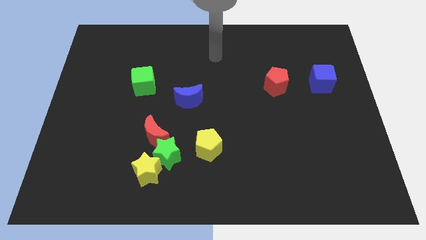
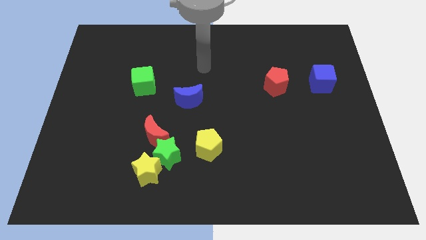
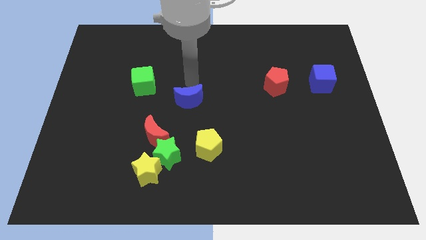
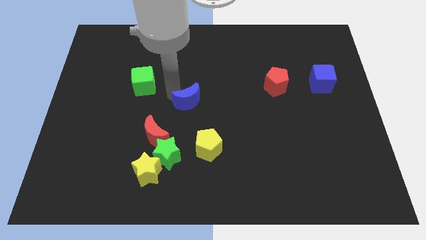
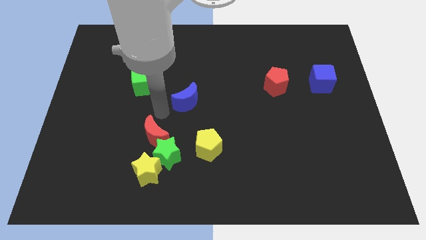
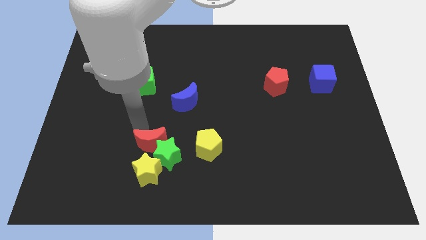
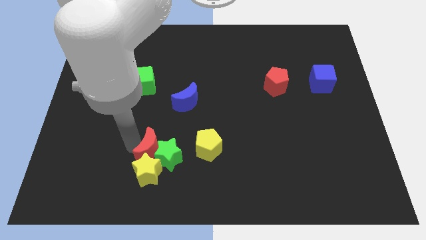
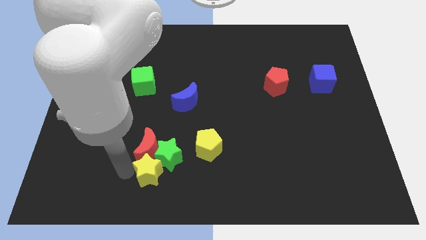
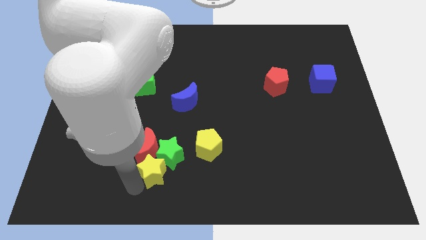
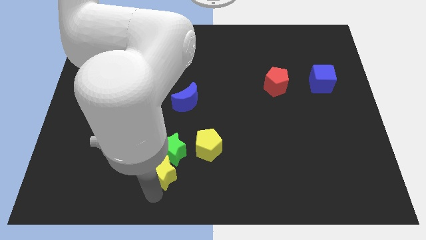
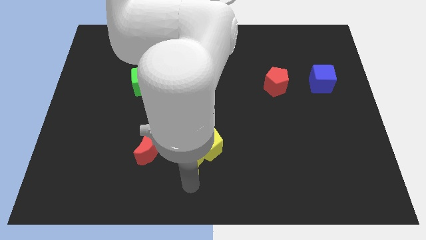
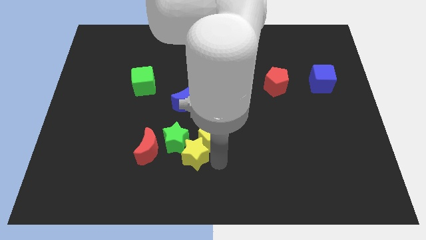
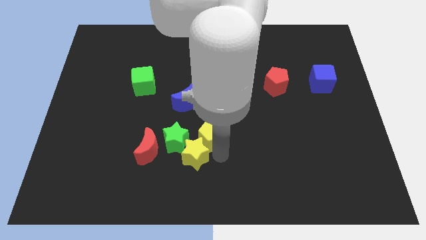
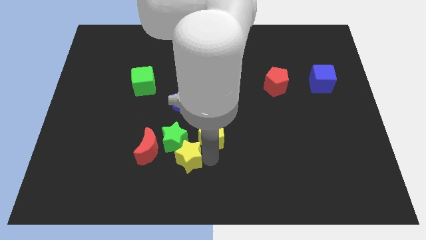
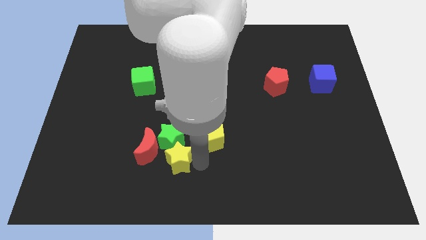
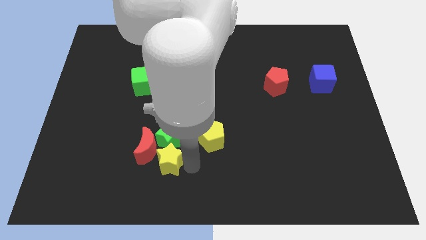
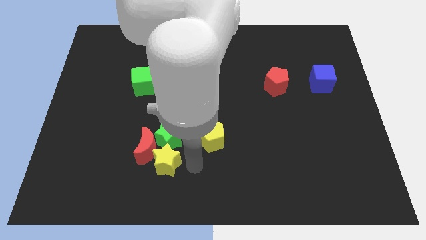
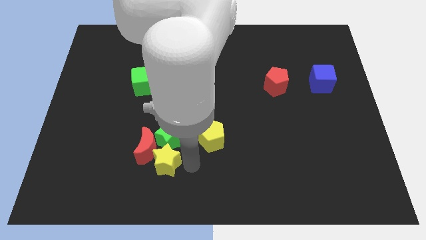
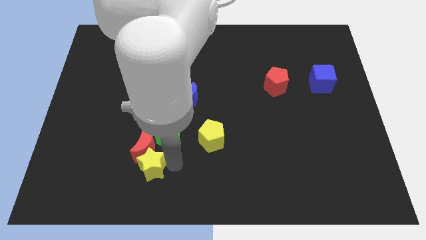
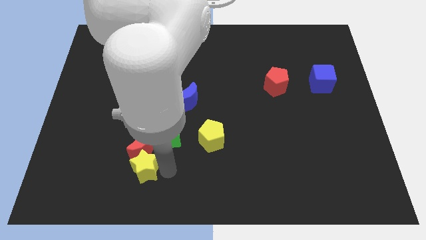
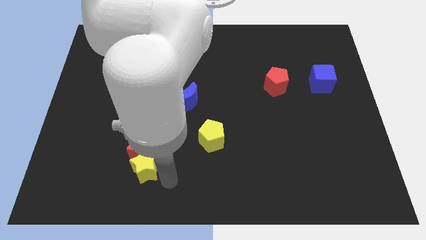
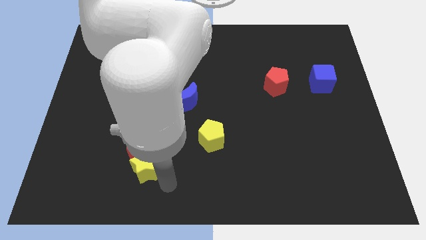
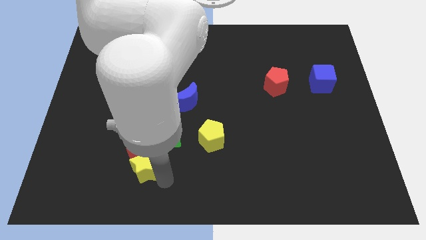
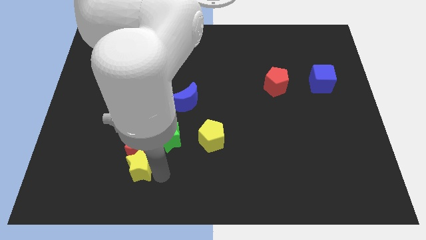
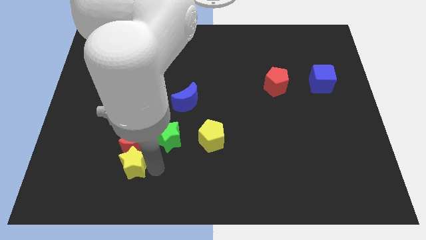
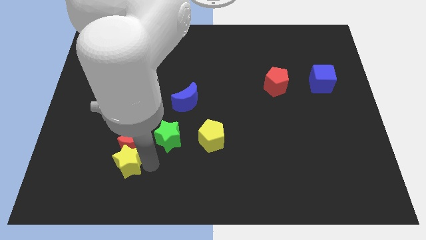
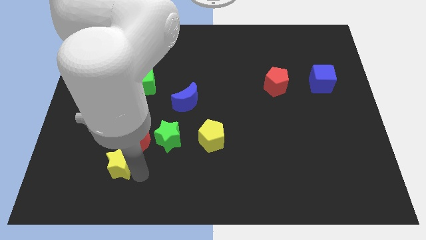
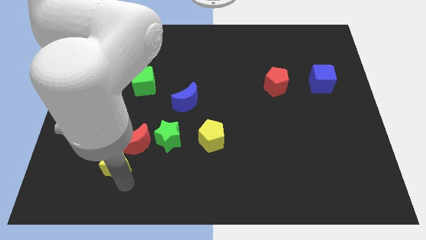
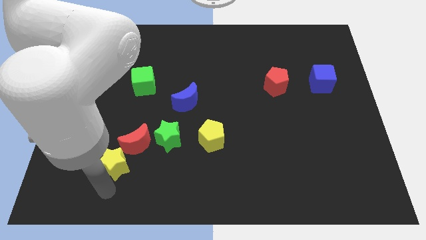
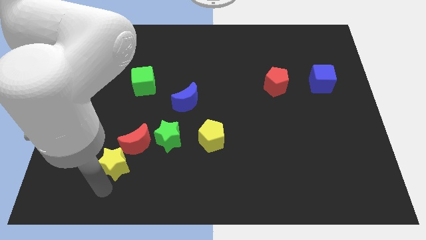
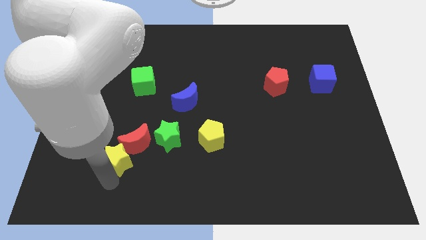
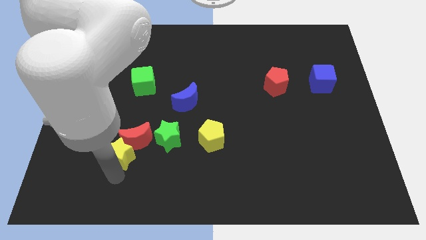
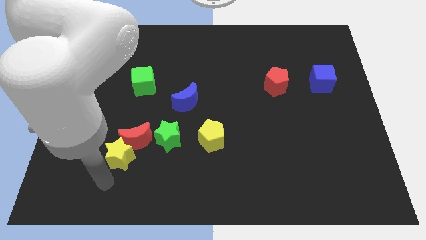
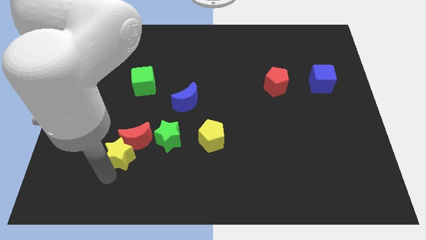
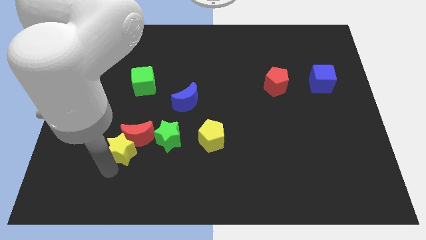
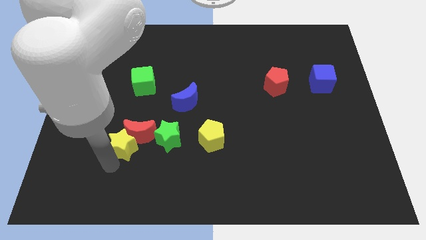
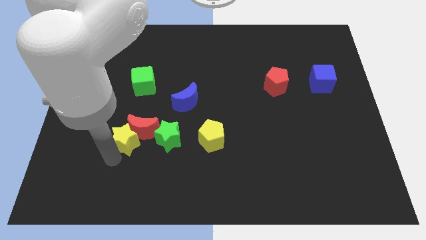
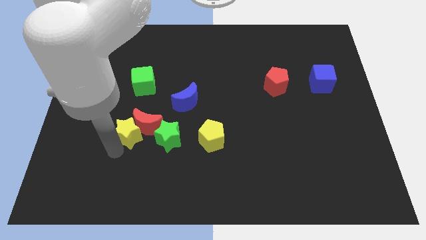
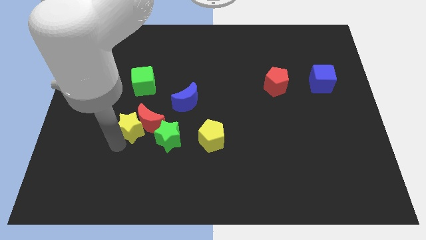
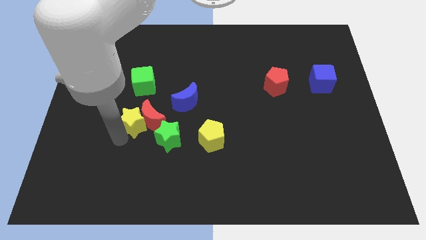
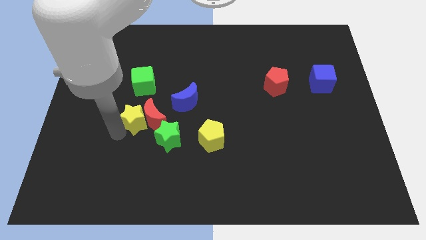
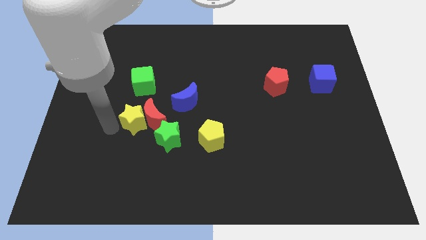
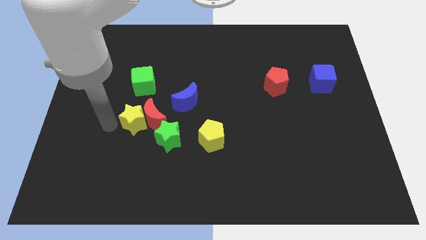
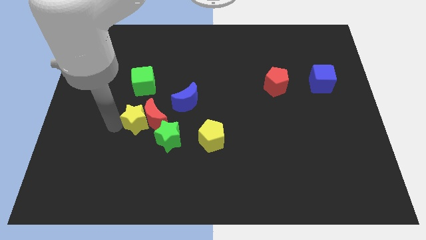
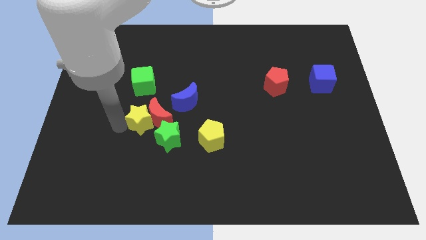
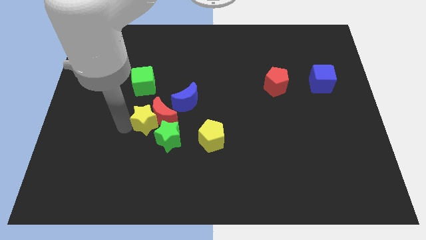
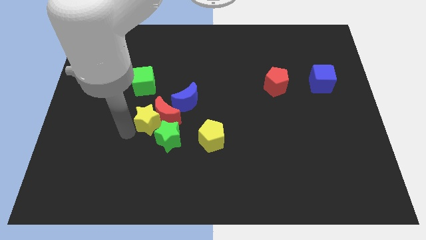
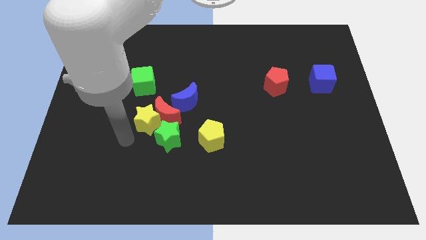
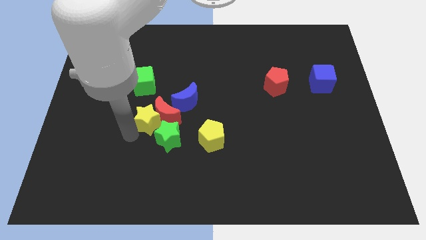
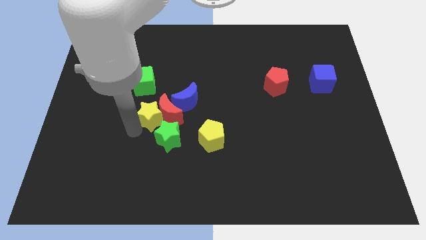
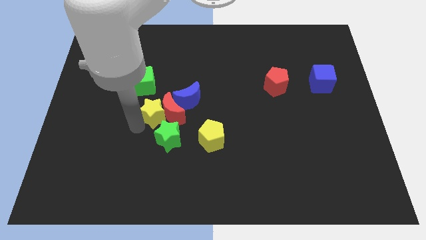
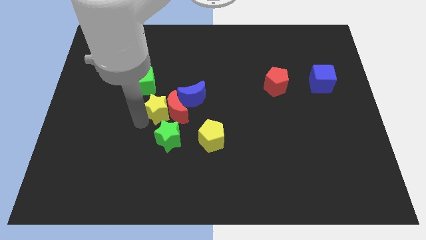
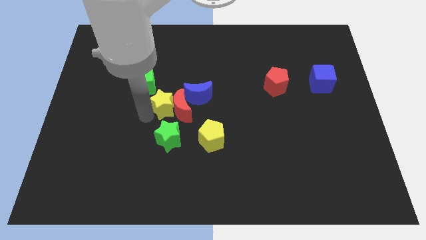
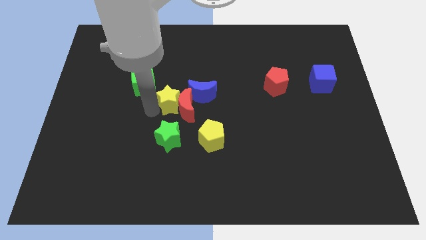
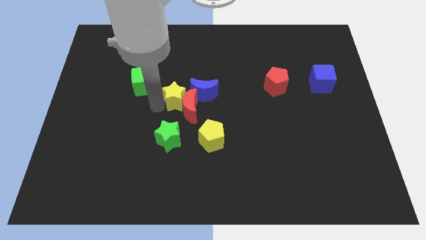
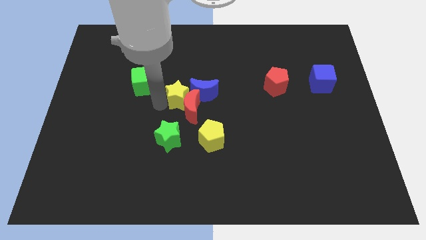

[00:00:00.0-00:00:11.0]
push the yellow star next to the blue moon

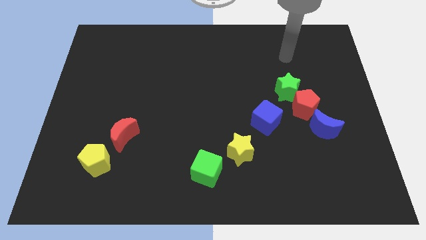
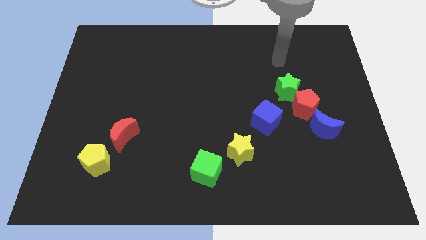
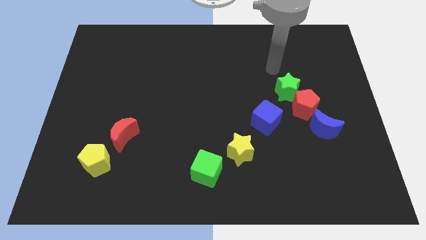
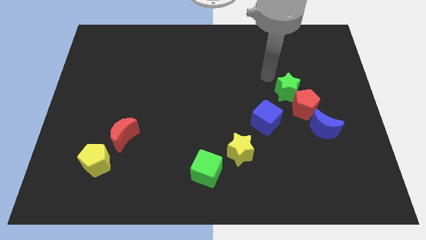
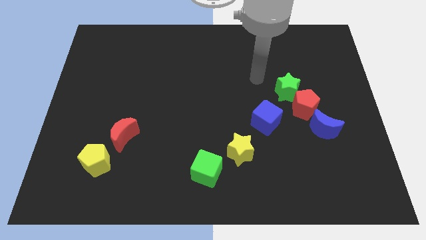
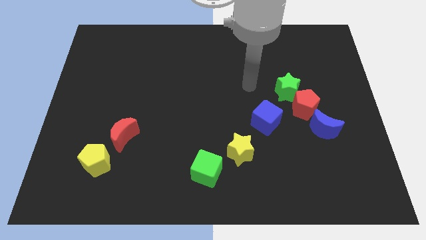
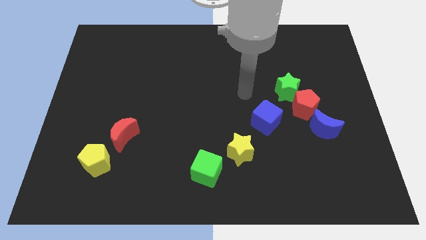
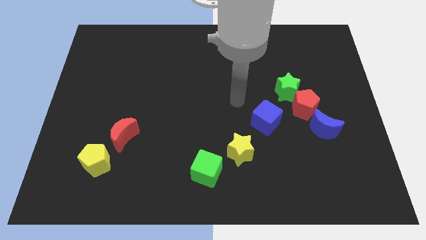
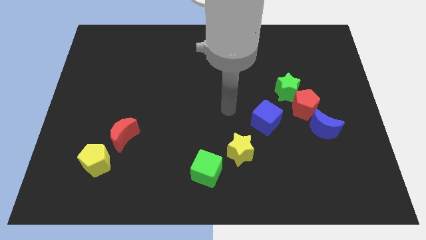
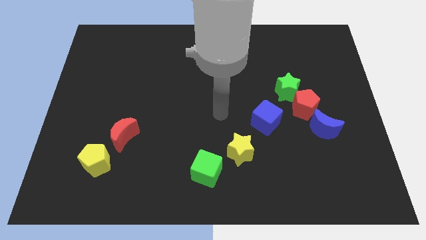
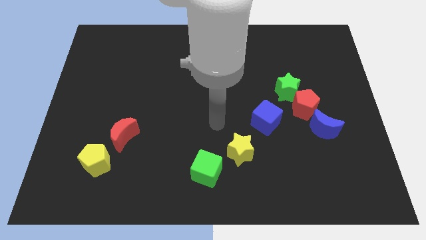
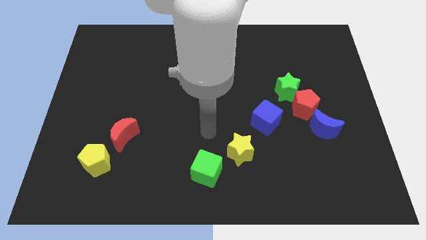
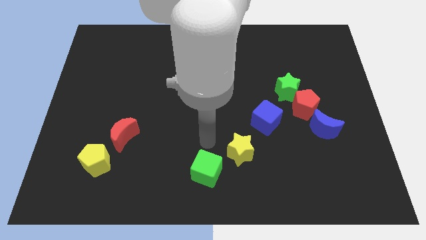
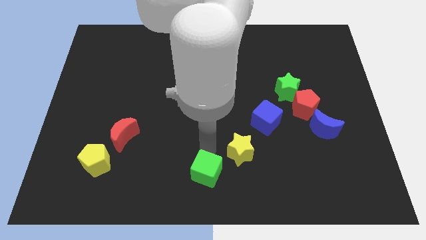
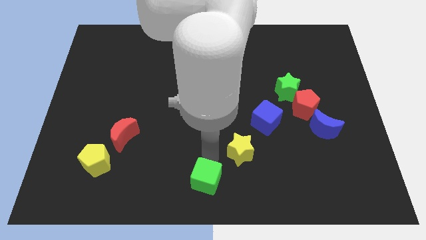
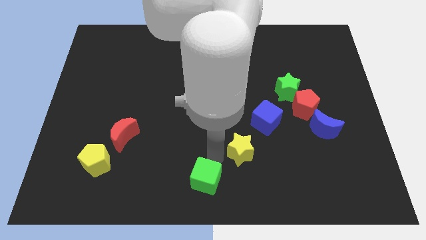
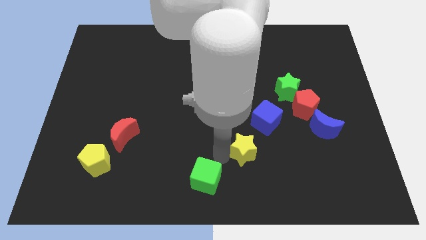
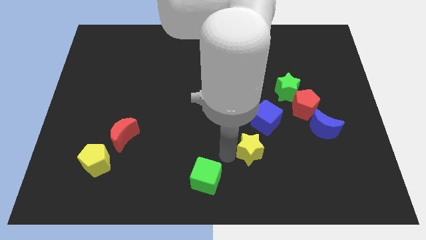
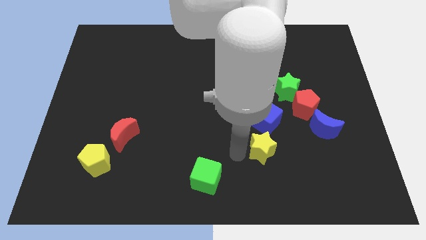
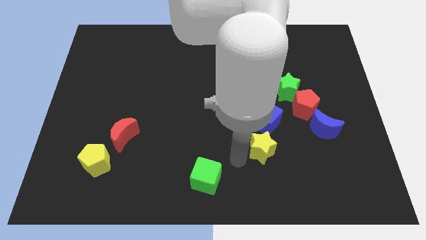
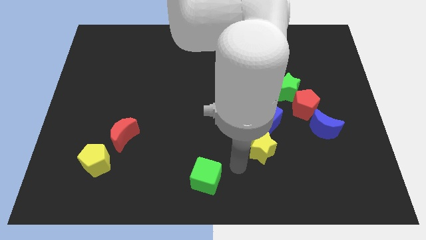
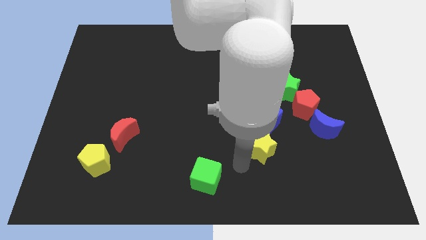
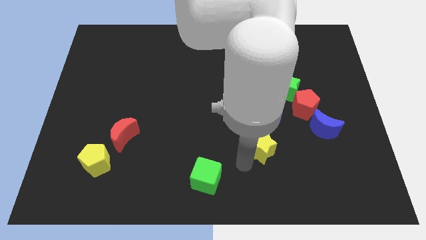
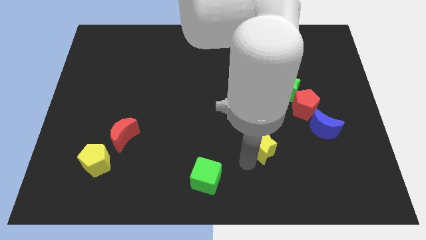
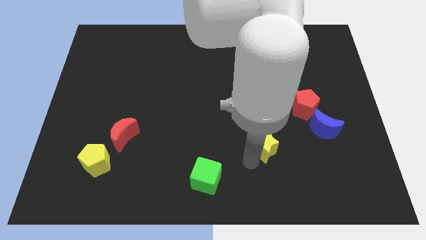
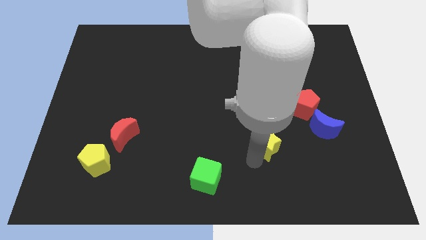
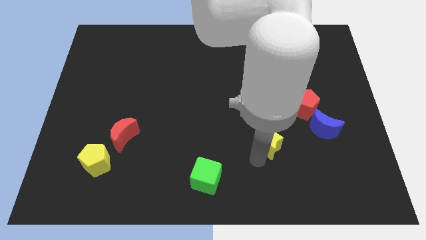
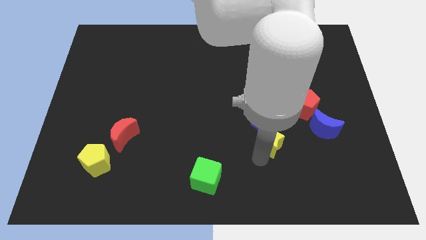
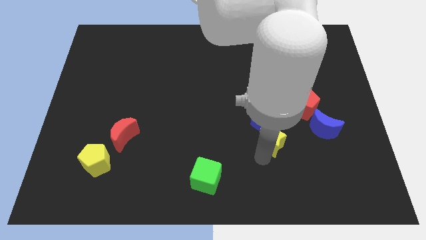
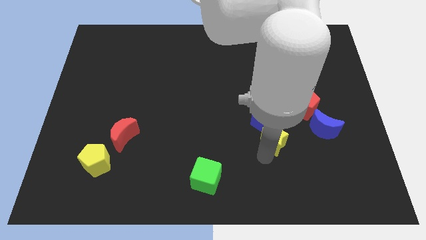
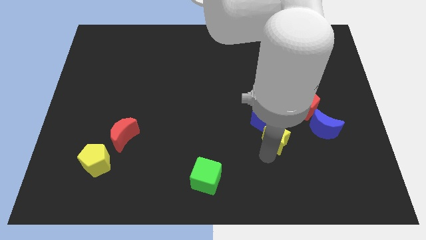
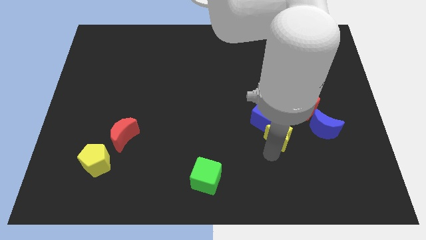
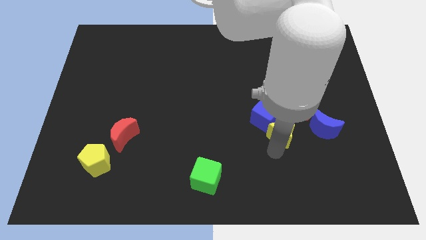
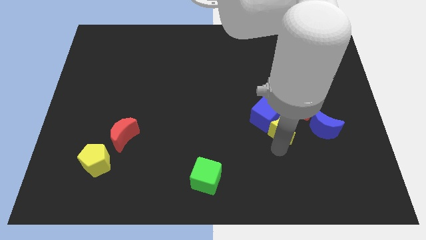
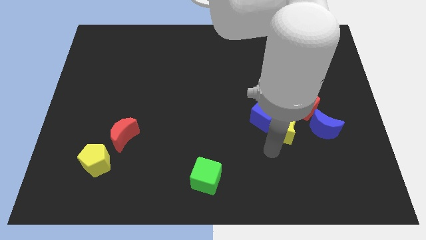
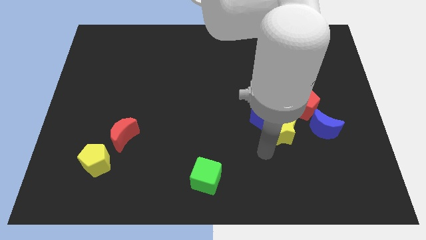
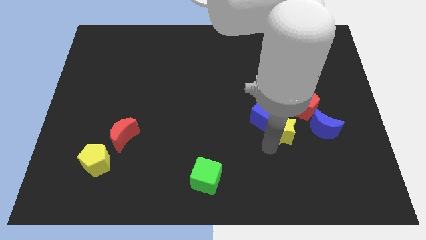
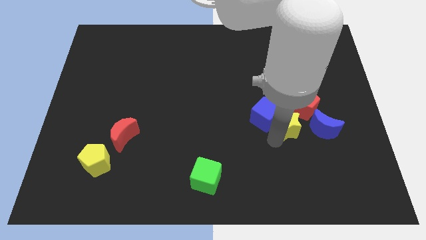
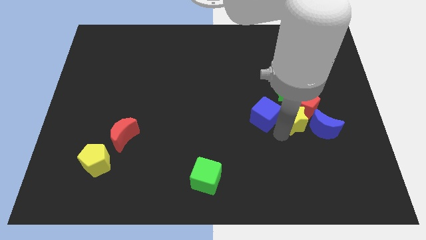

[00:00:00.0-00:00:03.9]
slide the yellow star towards the red pentagon
